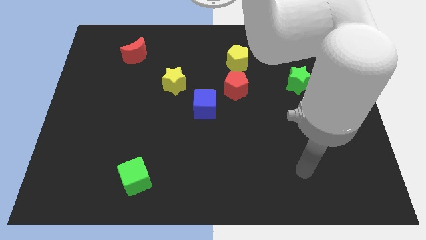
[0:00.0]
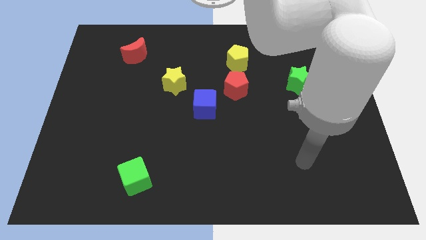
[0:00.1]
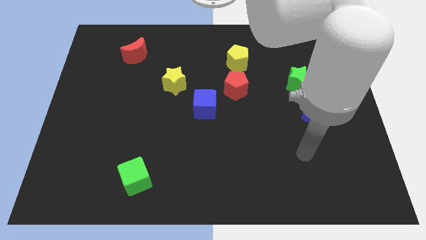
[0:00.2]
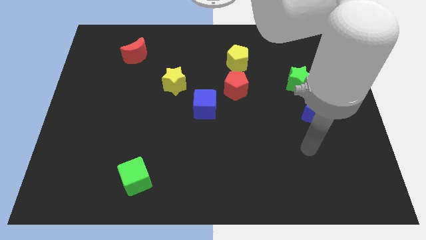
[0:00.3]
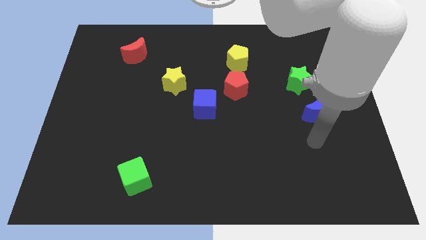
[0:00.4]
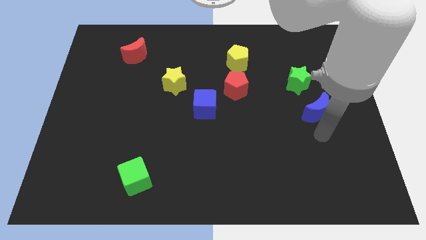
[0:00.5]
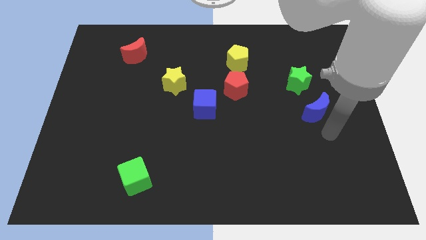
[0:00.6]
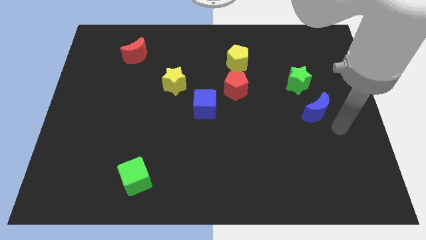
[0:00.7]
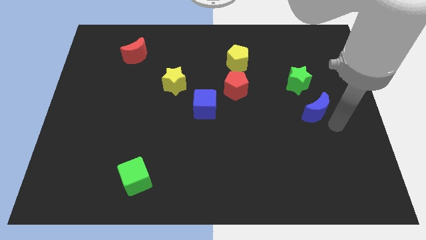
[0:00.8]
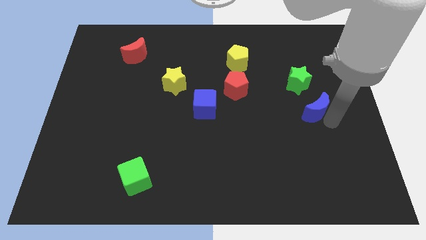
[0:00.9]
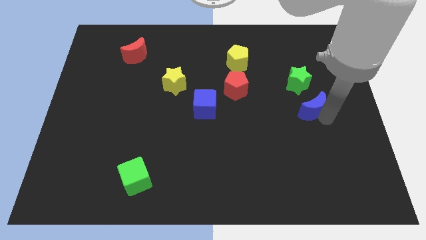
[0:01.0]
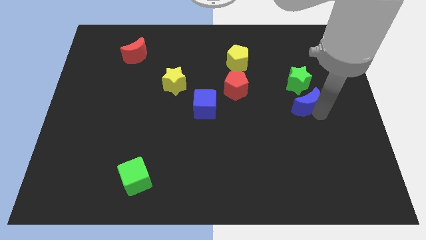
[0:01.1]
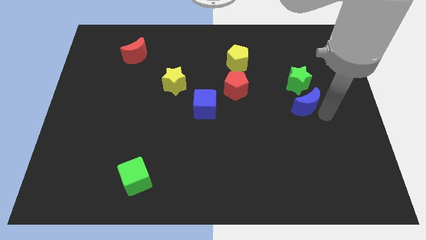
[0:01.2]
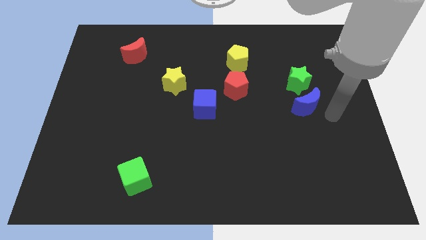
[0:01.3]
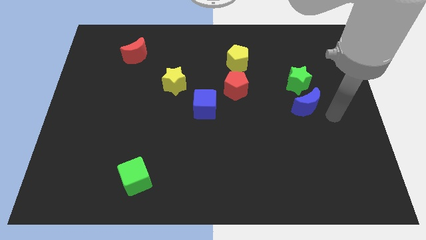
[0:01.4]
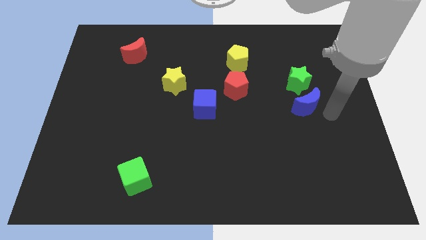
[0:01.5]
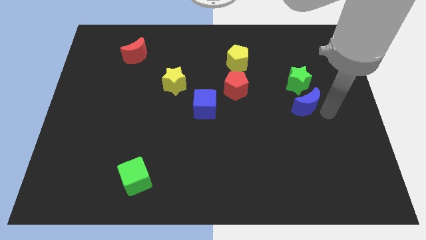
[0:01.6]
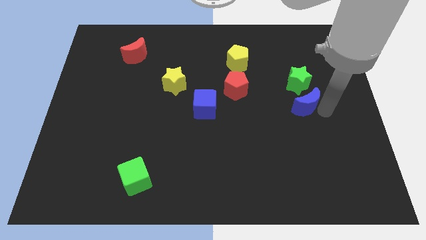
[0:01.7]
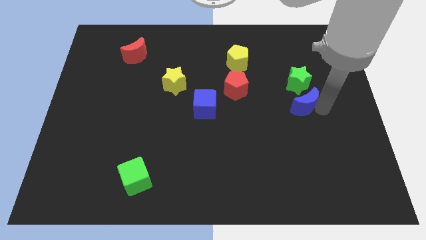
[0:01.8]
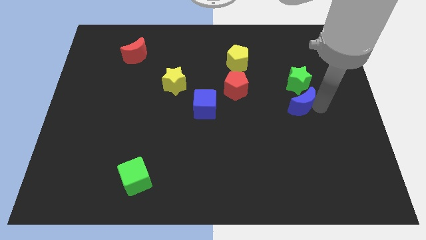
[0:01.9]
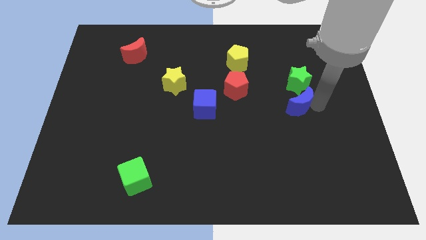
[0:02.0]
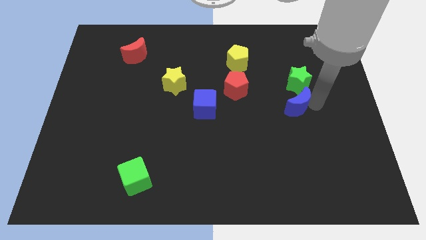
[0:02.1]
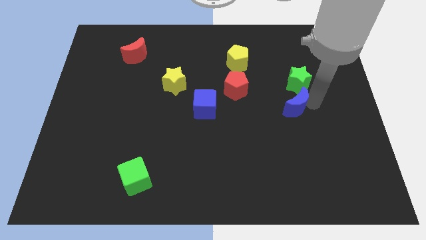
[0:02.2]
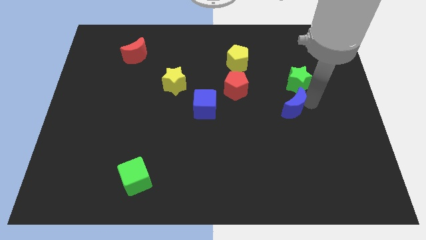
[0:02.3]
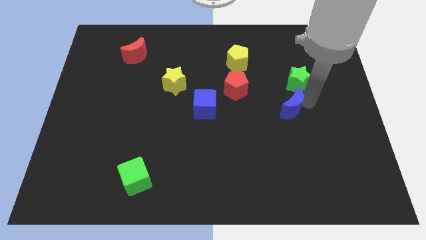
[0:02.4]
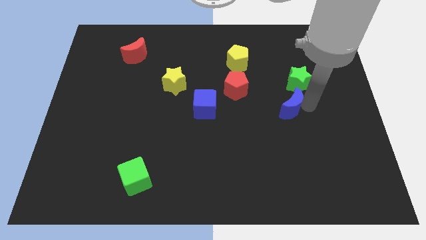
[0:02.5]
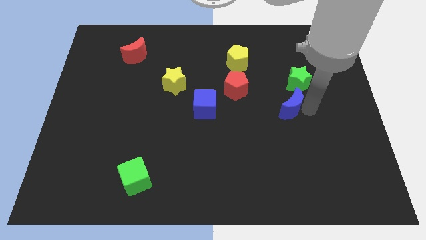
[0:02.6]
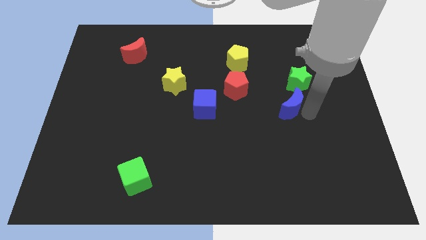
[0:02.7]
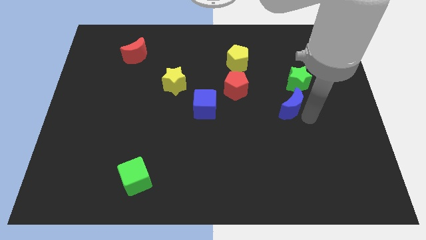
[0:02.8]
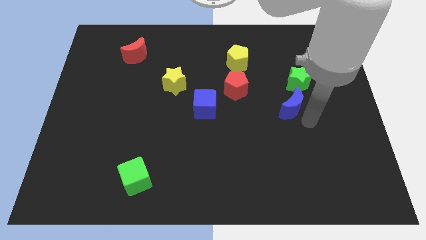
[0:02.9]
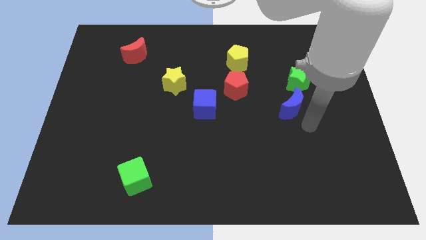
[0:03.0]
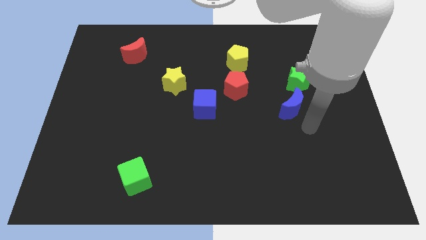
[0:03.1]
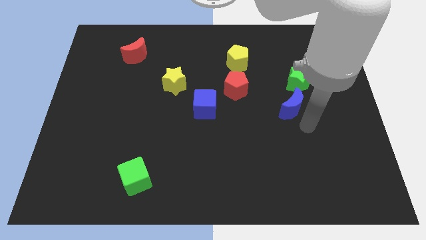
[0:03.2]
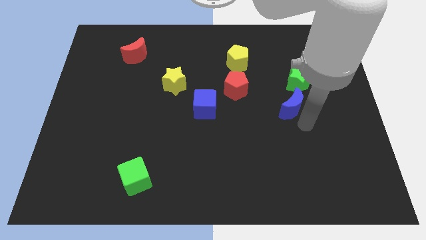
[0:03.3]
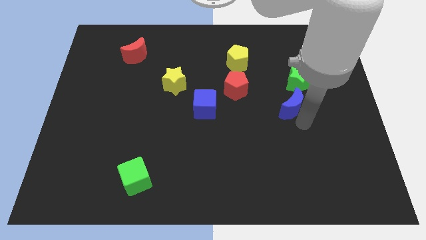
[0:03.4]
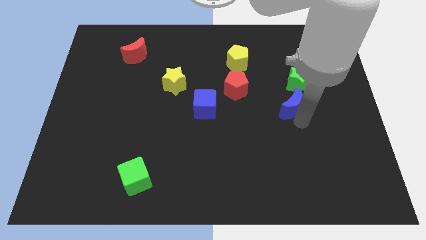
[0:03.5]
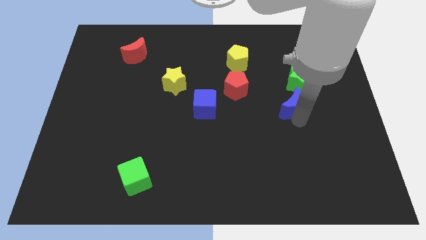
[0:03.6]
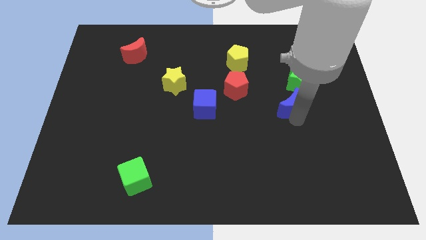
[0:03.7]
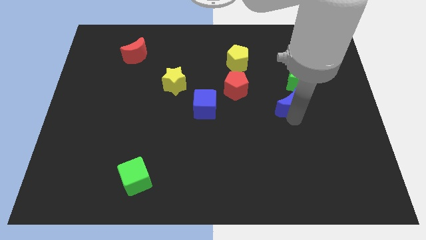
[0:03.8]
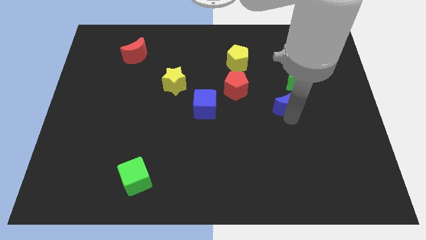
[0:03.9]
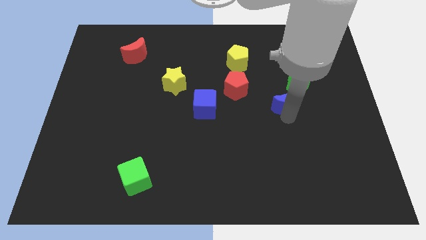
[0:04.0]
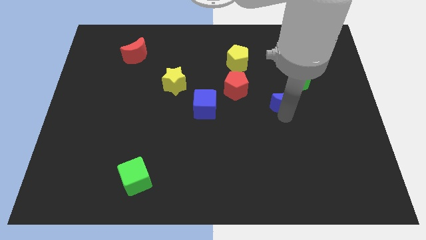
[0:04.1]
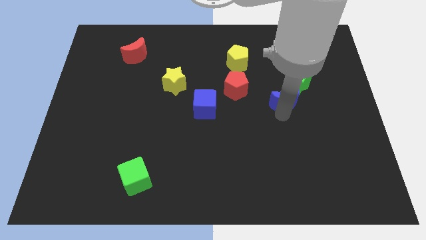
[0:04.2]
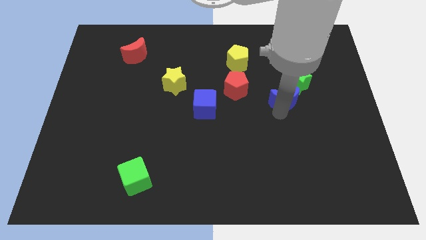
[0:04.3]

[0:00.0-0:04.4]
slightly slide the blue moon up and then left

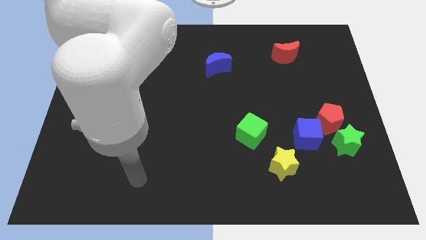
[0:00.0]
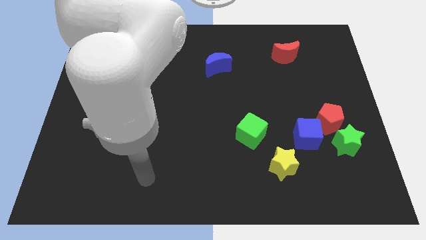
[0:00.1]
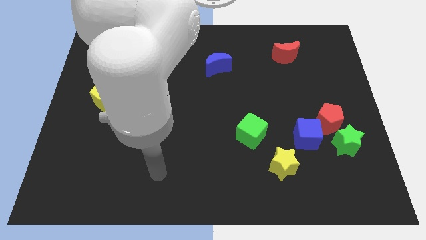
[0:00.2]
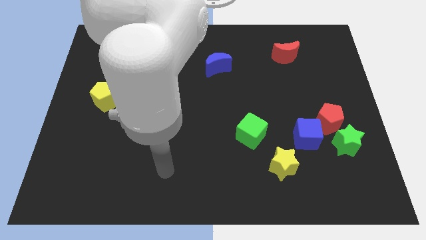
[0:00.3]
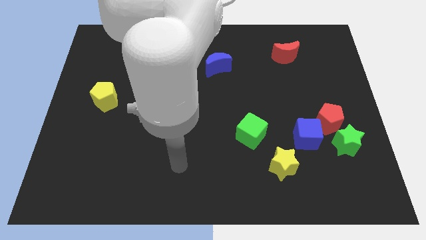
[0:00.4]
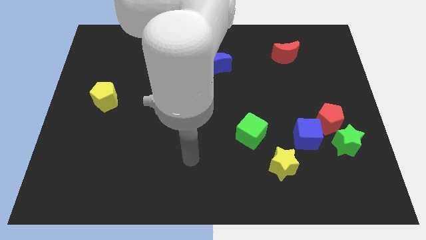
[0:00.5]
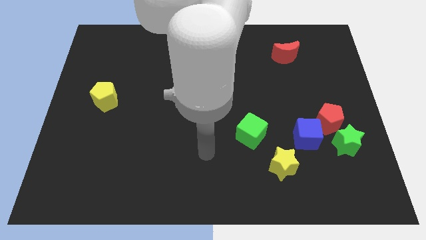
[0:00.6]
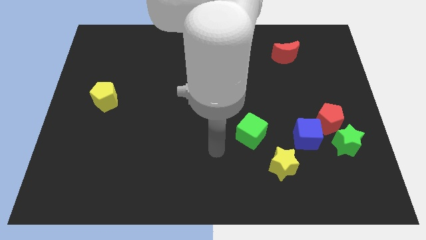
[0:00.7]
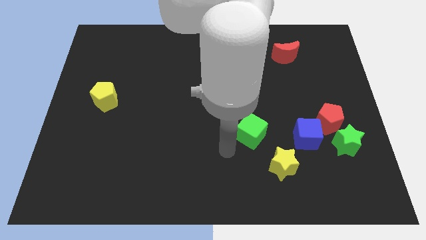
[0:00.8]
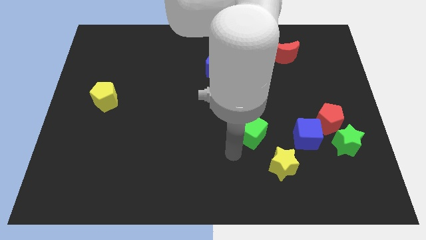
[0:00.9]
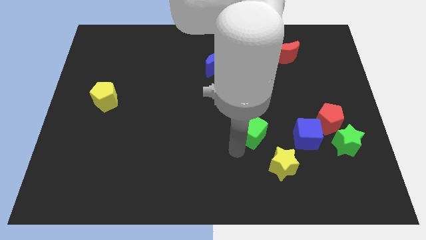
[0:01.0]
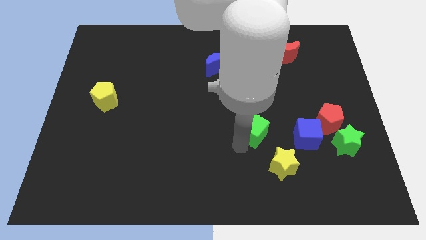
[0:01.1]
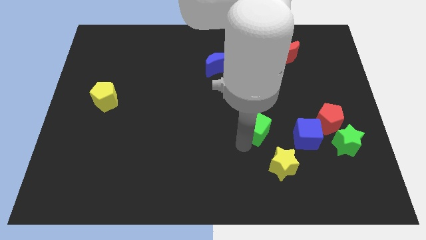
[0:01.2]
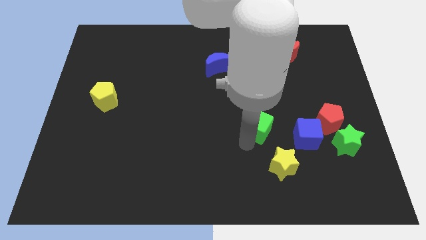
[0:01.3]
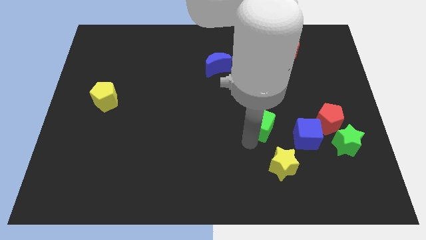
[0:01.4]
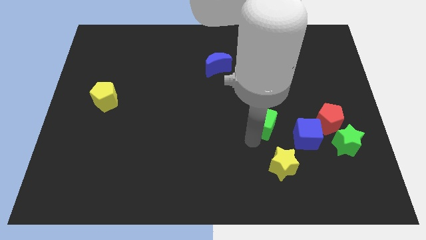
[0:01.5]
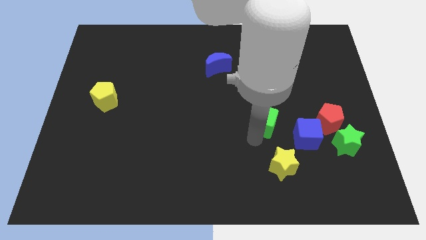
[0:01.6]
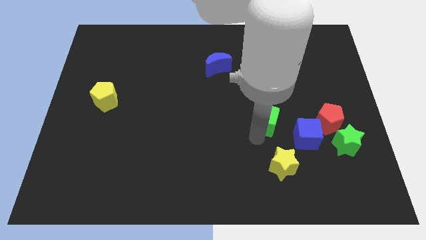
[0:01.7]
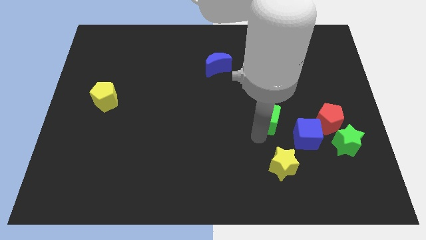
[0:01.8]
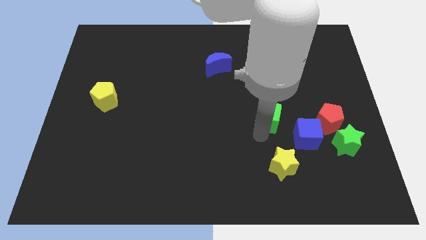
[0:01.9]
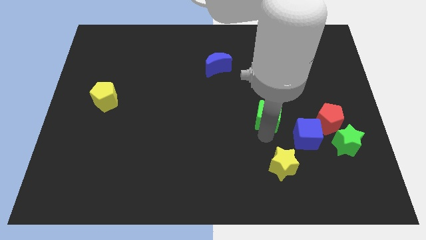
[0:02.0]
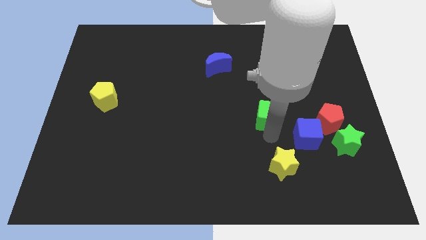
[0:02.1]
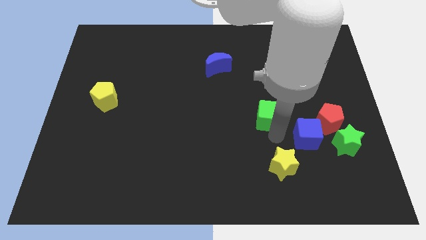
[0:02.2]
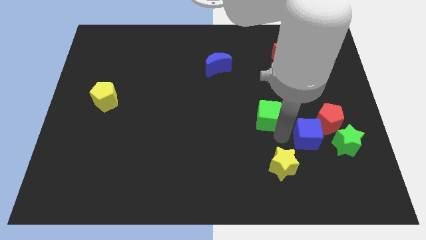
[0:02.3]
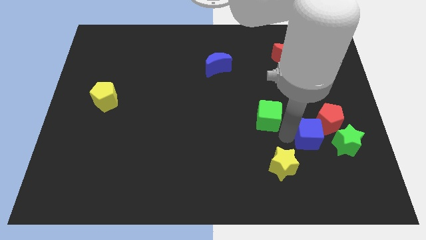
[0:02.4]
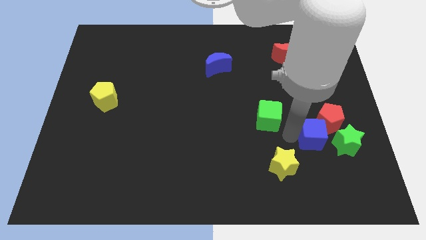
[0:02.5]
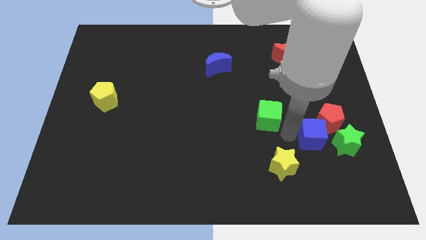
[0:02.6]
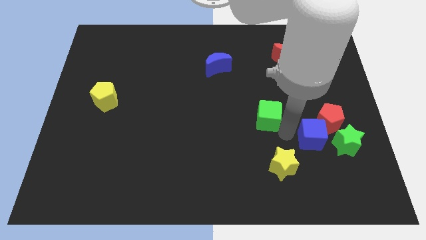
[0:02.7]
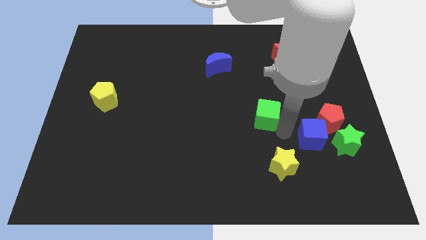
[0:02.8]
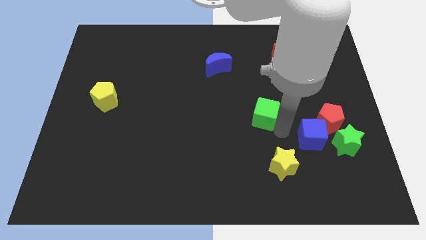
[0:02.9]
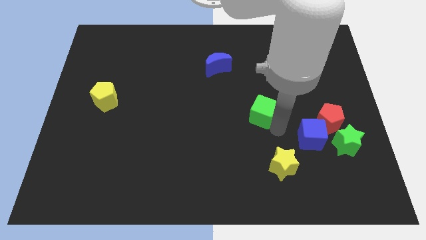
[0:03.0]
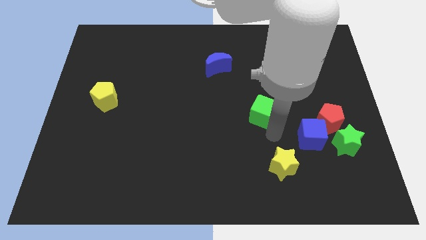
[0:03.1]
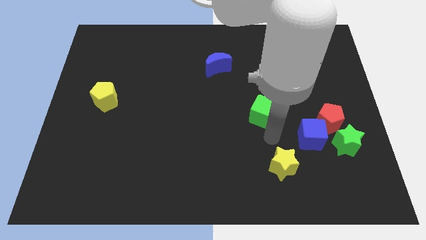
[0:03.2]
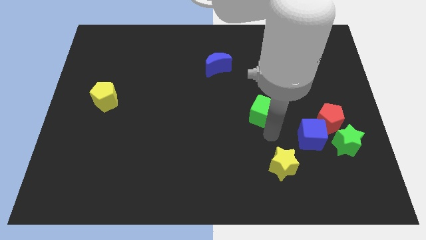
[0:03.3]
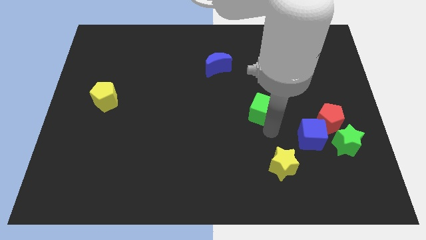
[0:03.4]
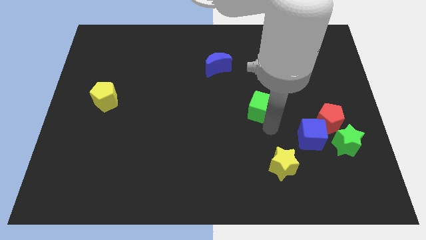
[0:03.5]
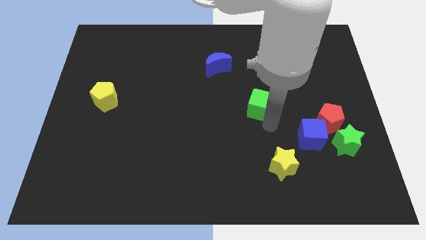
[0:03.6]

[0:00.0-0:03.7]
slightly push the green cube upwards
